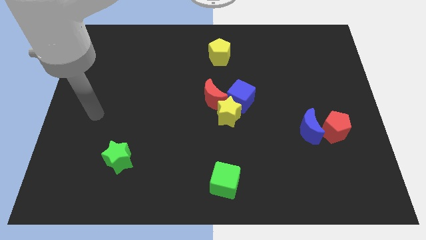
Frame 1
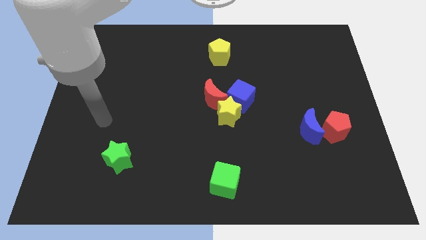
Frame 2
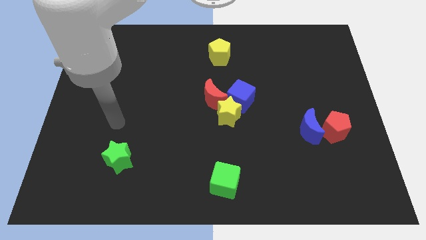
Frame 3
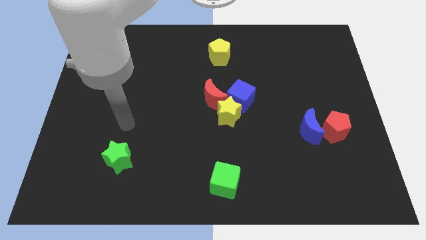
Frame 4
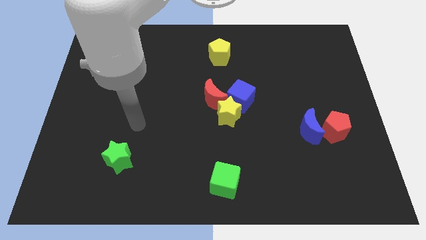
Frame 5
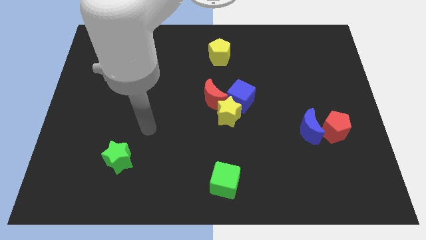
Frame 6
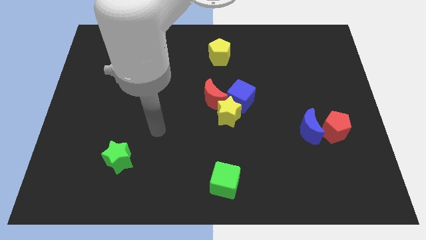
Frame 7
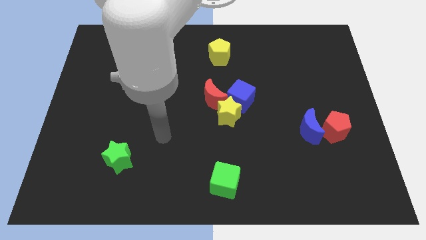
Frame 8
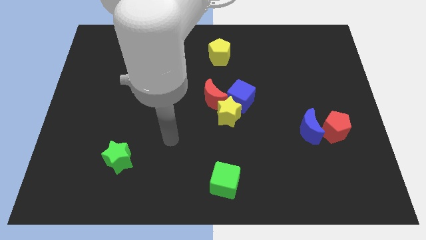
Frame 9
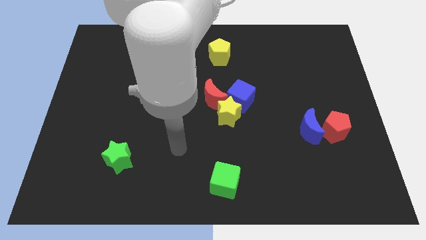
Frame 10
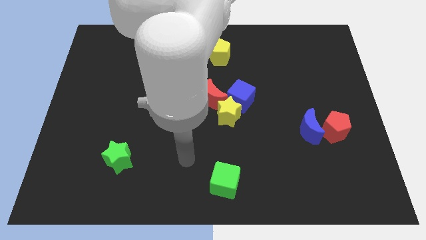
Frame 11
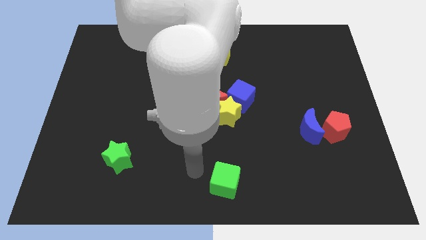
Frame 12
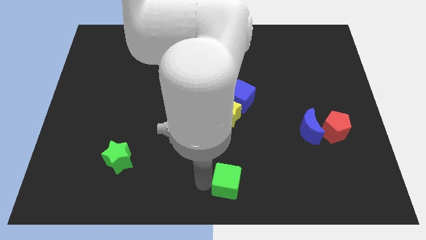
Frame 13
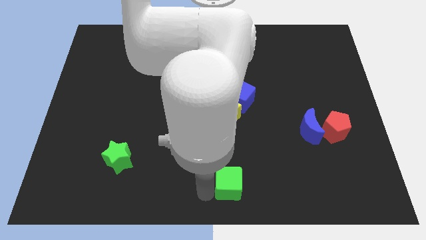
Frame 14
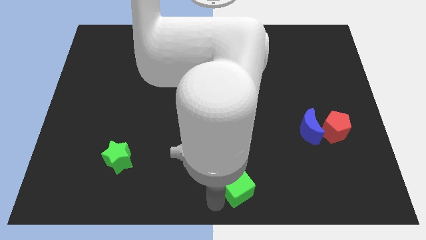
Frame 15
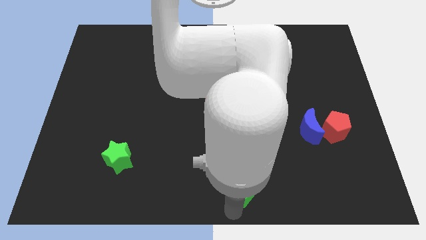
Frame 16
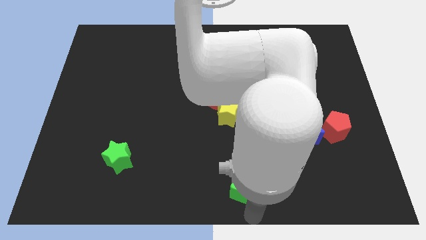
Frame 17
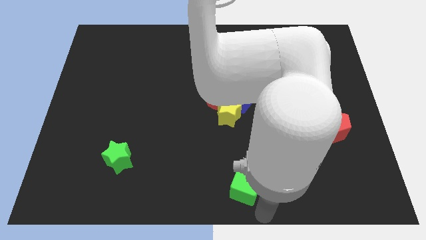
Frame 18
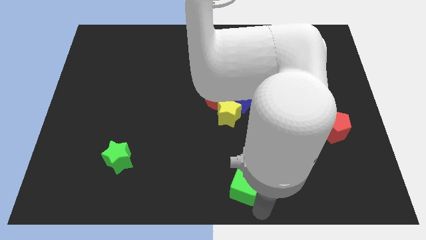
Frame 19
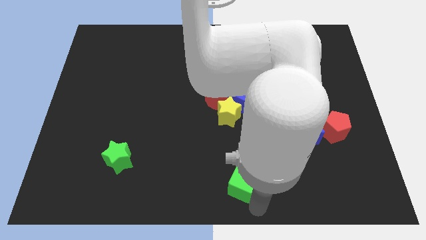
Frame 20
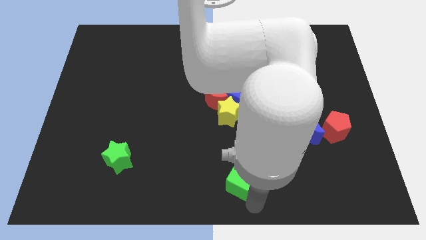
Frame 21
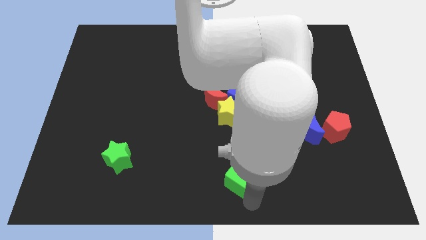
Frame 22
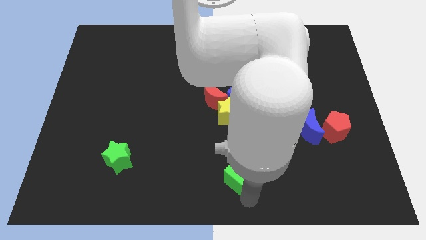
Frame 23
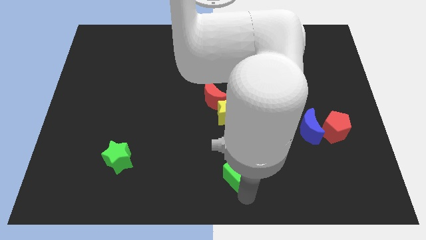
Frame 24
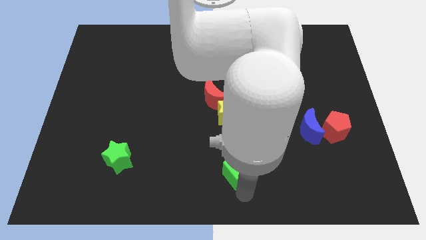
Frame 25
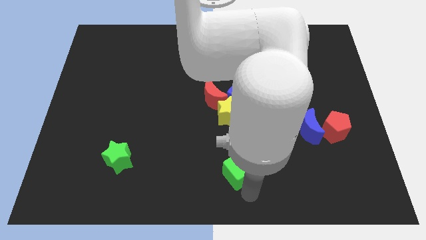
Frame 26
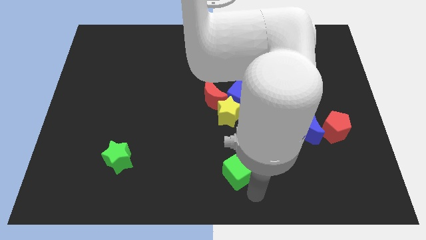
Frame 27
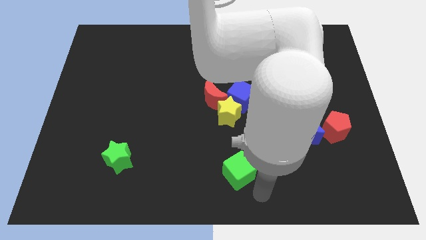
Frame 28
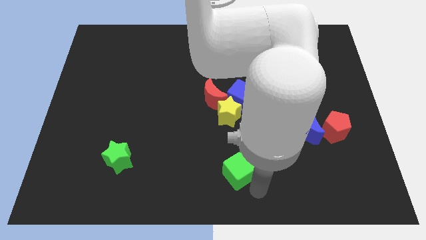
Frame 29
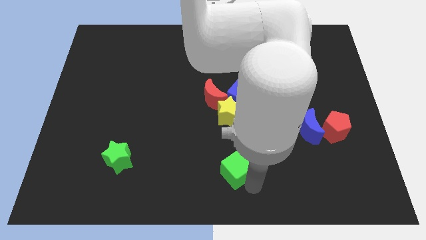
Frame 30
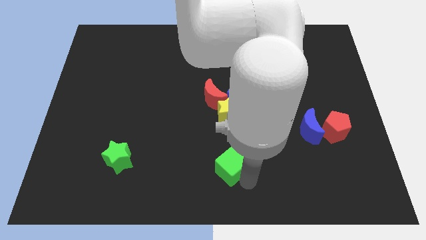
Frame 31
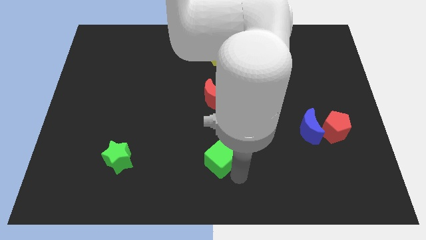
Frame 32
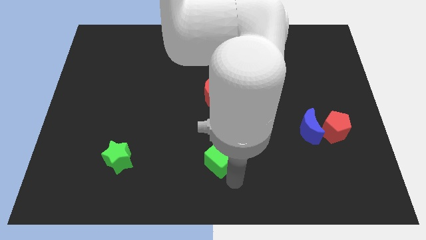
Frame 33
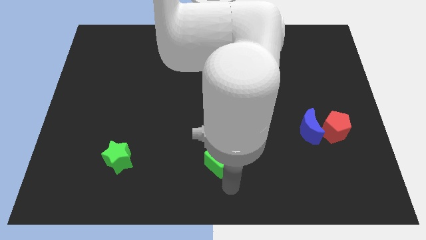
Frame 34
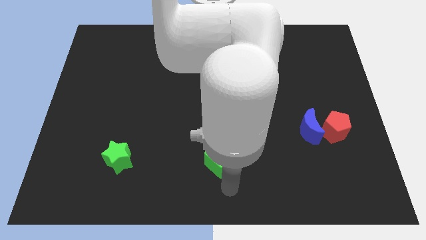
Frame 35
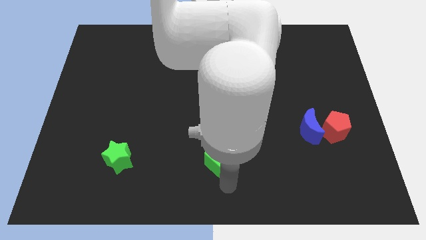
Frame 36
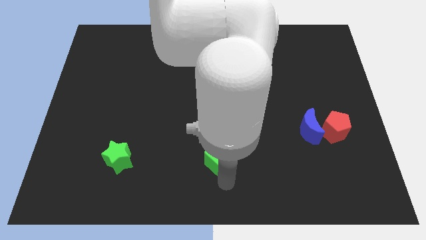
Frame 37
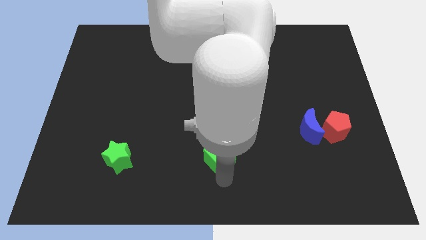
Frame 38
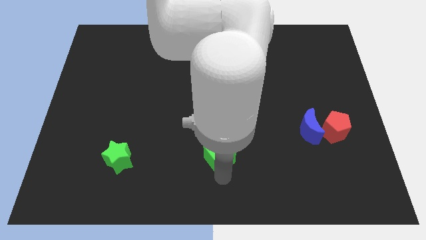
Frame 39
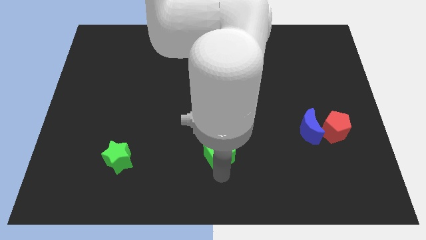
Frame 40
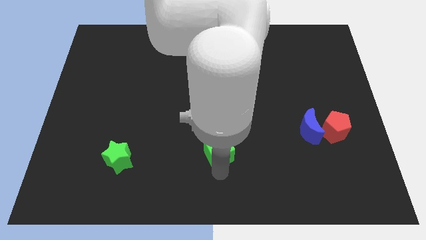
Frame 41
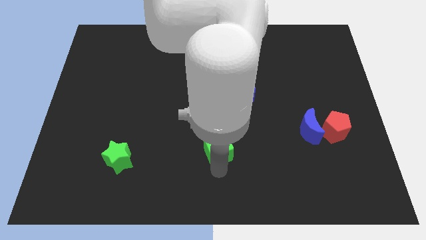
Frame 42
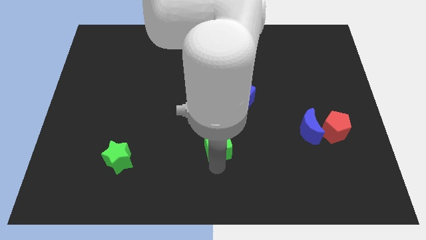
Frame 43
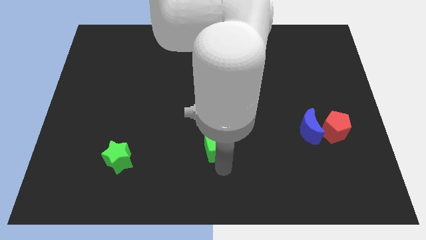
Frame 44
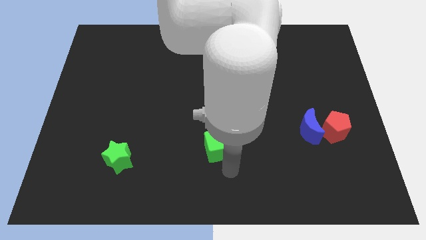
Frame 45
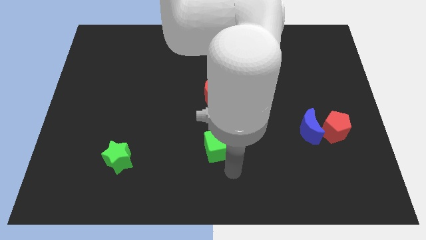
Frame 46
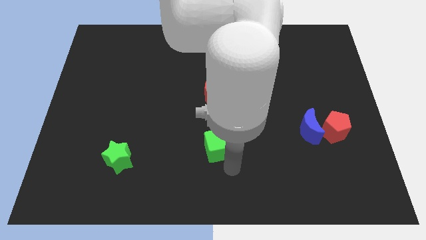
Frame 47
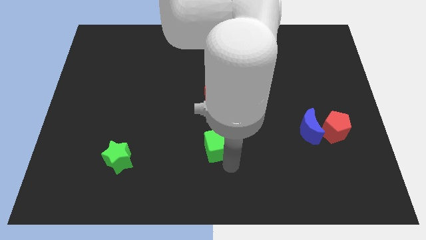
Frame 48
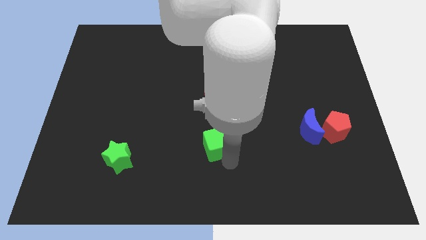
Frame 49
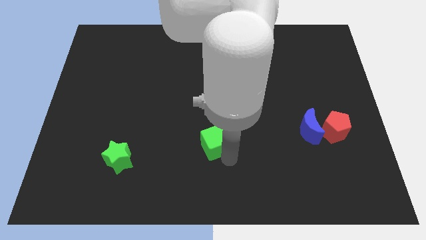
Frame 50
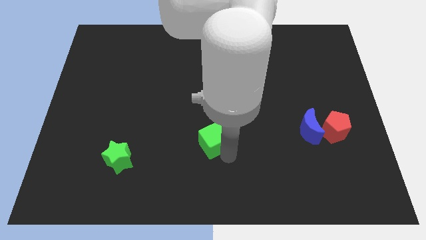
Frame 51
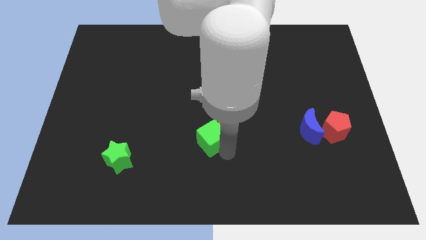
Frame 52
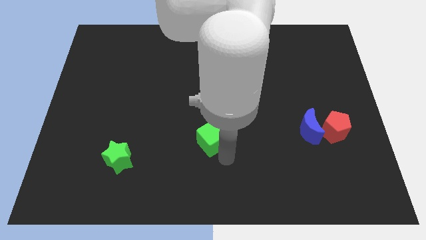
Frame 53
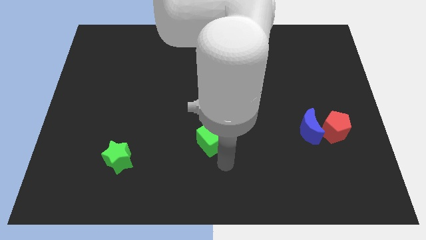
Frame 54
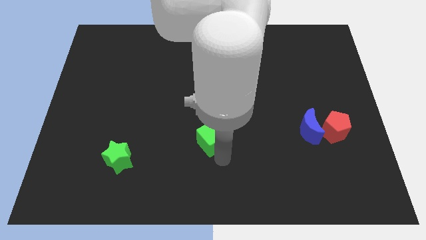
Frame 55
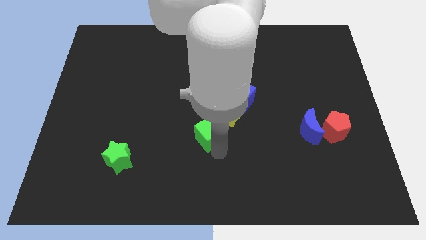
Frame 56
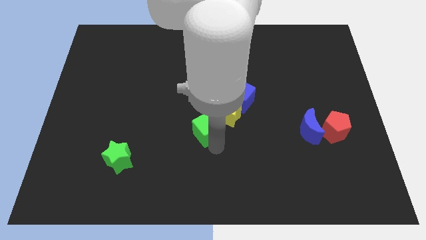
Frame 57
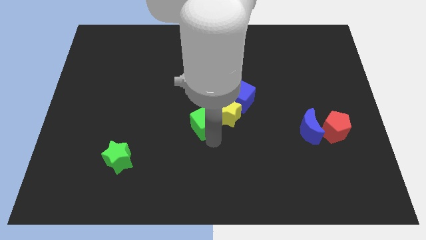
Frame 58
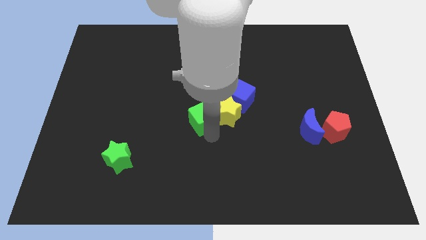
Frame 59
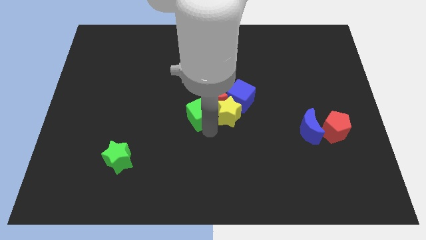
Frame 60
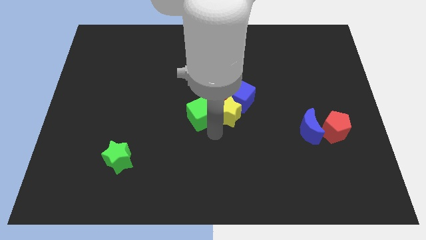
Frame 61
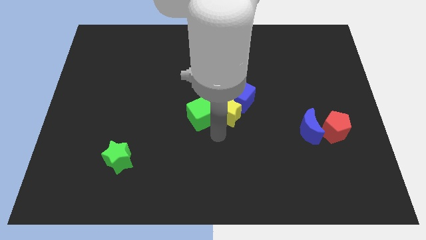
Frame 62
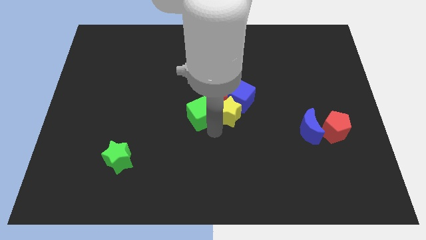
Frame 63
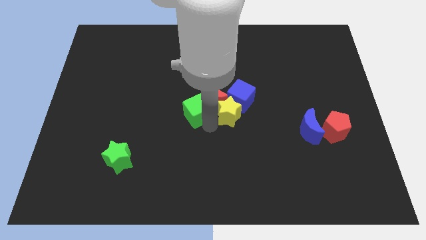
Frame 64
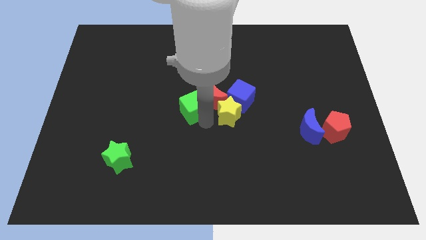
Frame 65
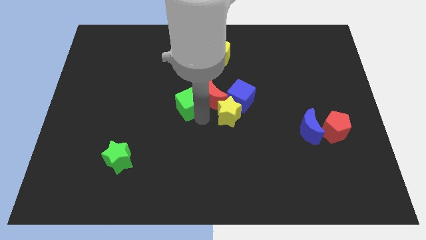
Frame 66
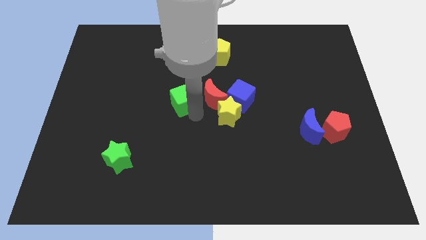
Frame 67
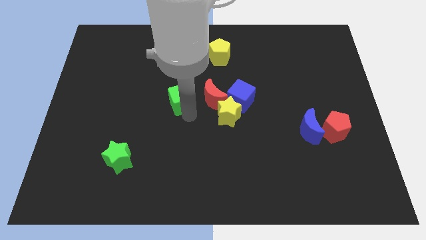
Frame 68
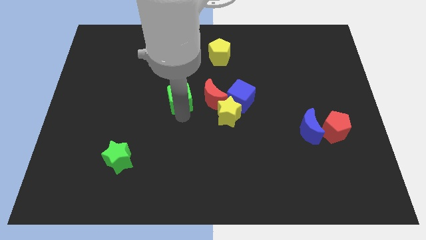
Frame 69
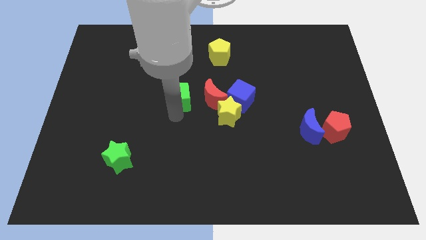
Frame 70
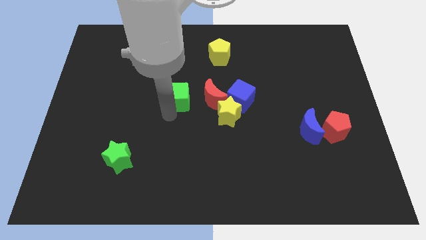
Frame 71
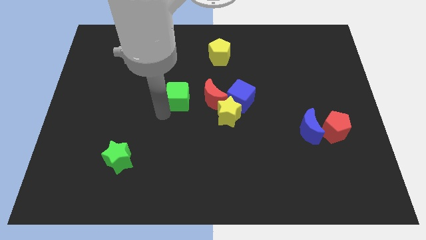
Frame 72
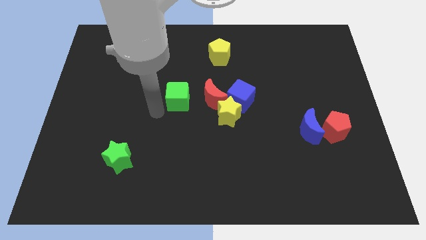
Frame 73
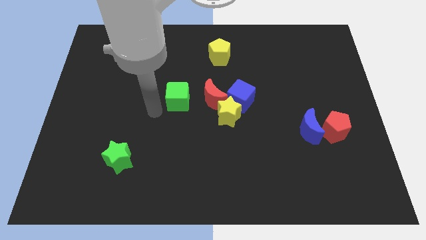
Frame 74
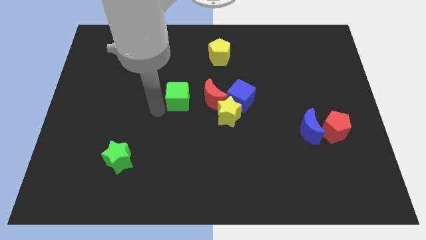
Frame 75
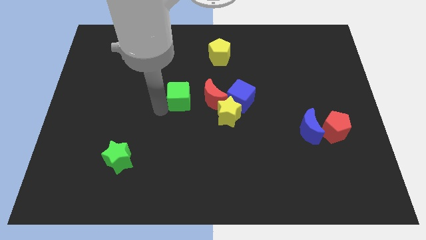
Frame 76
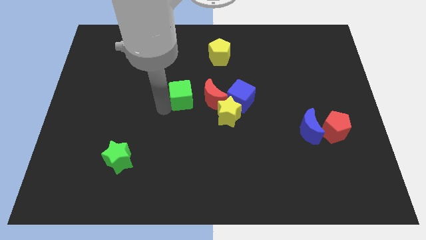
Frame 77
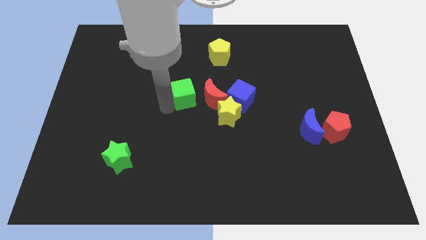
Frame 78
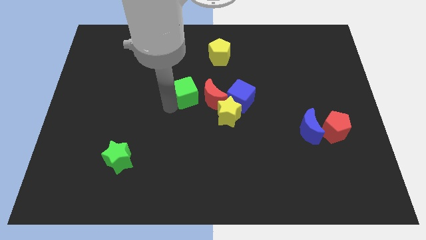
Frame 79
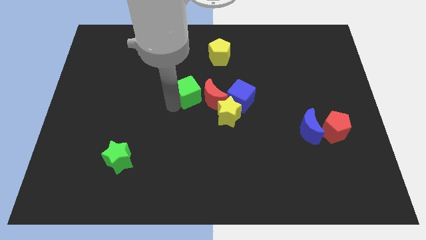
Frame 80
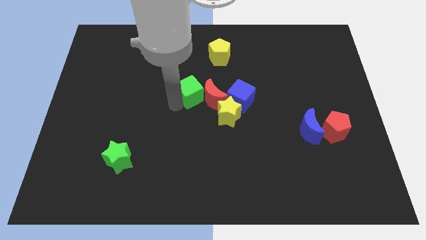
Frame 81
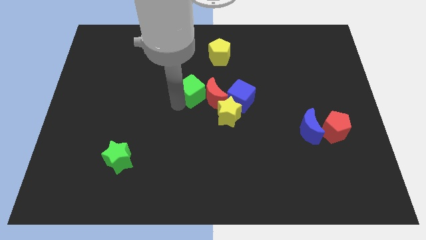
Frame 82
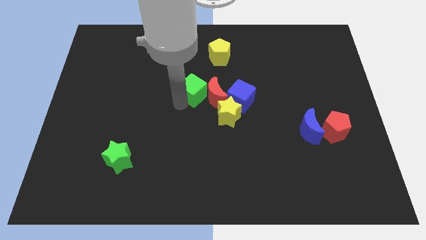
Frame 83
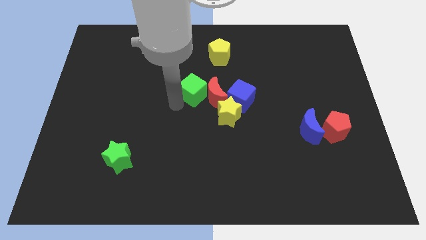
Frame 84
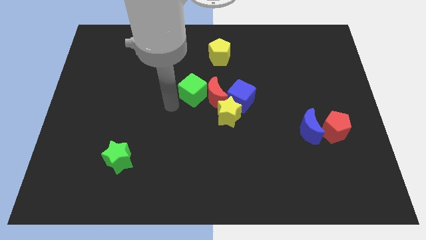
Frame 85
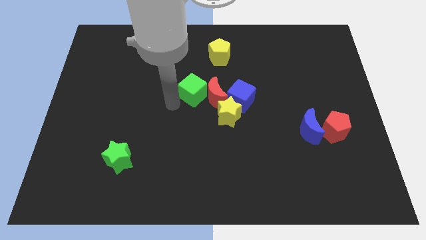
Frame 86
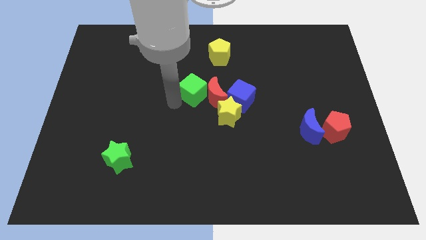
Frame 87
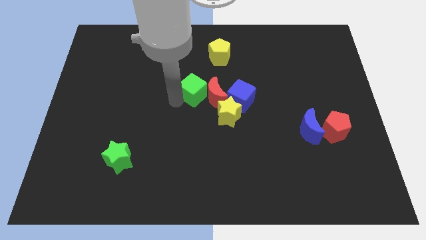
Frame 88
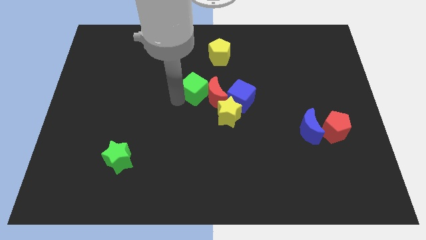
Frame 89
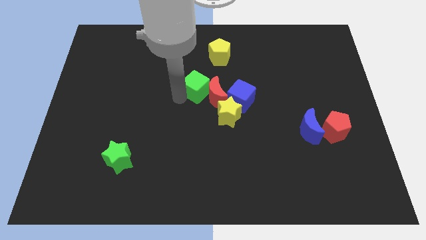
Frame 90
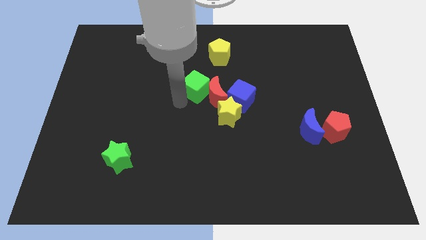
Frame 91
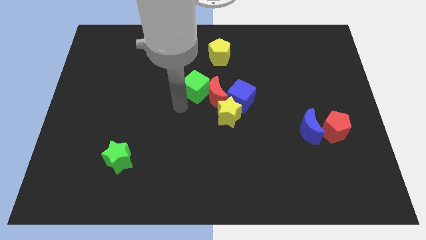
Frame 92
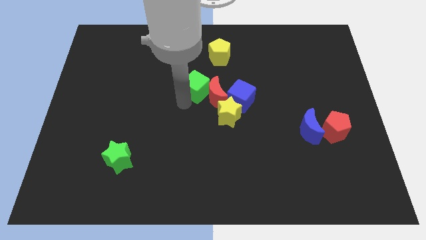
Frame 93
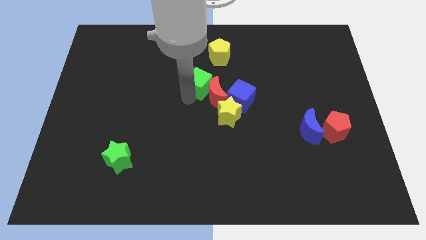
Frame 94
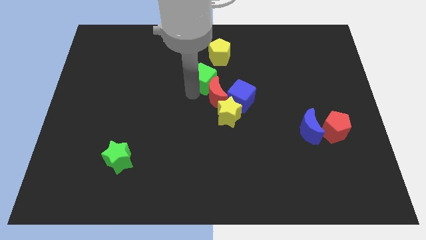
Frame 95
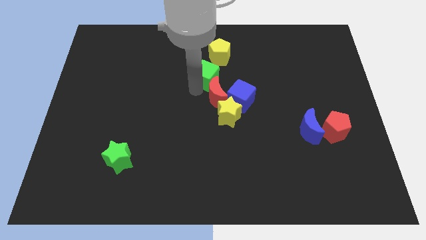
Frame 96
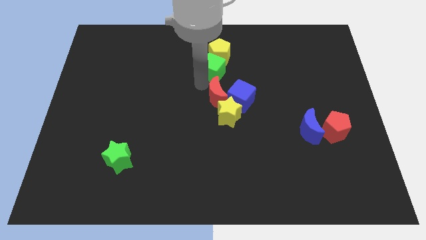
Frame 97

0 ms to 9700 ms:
slide the green cube close to the yellow pentagon
